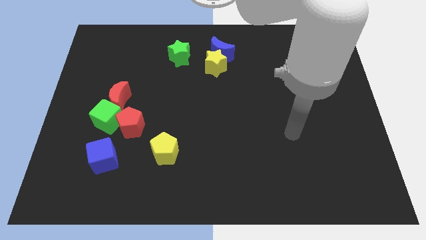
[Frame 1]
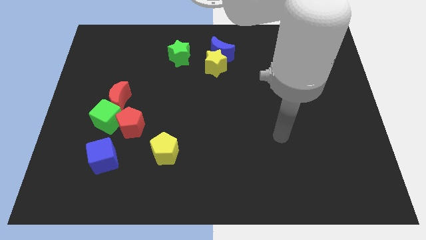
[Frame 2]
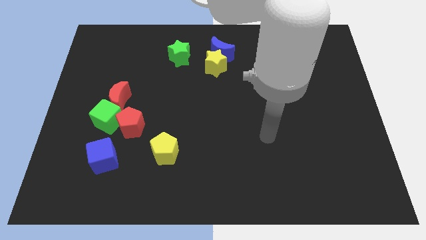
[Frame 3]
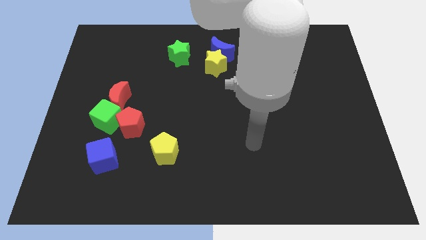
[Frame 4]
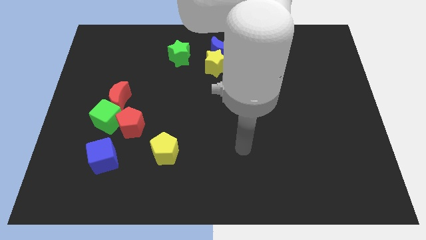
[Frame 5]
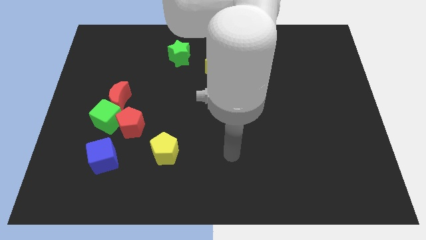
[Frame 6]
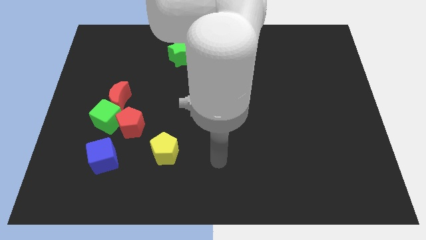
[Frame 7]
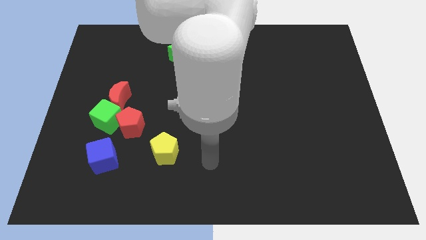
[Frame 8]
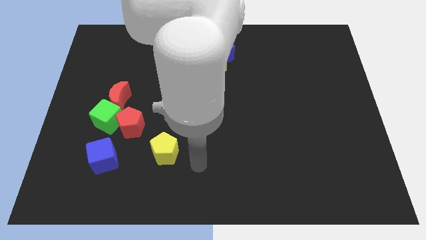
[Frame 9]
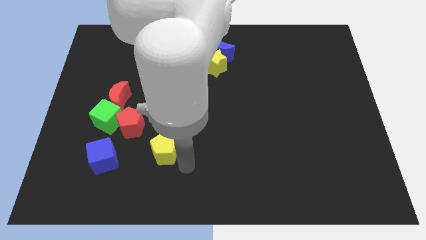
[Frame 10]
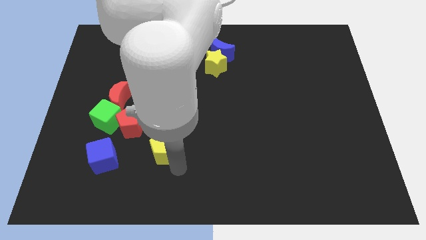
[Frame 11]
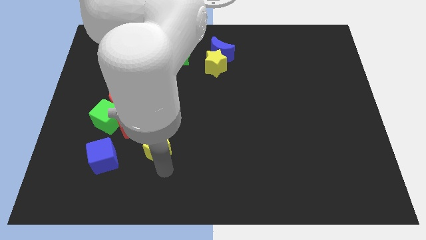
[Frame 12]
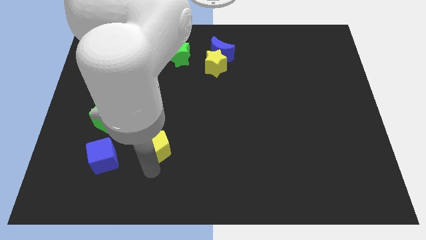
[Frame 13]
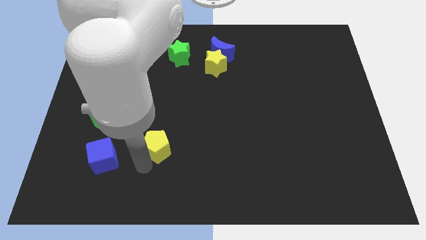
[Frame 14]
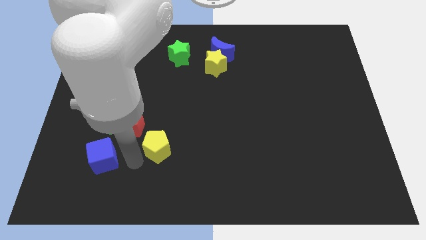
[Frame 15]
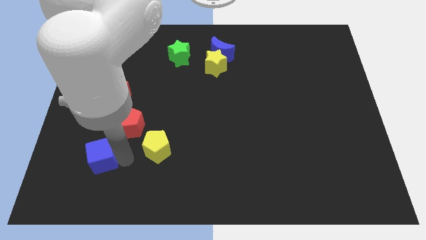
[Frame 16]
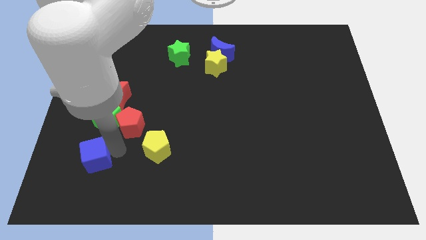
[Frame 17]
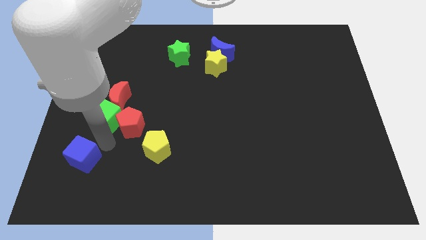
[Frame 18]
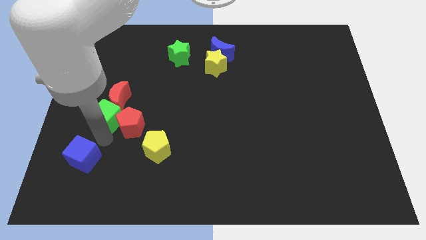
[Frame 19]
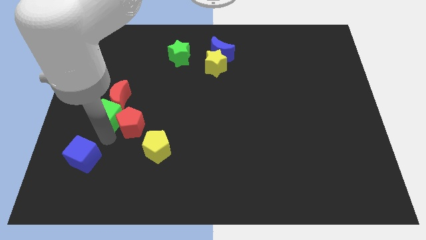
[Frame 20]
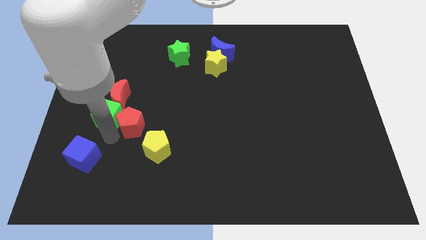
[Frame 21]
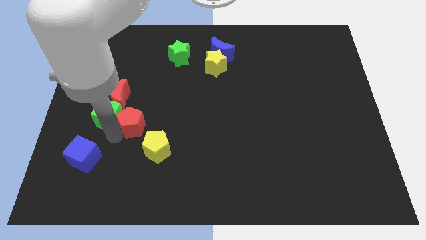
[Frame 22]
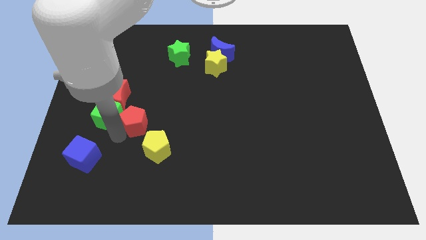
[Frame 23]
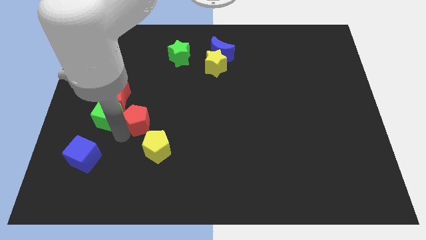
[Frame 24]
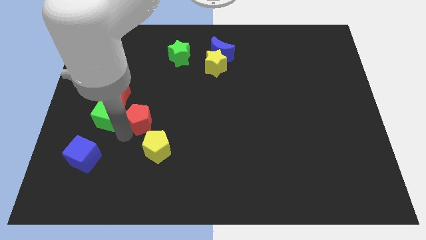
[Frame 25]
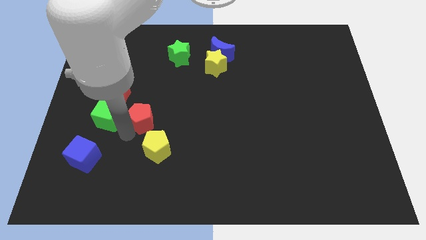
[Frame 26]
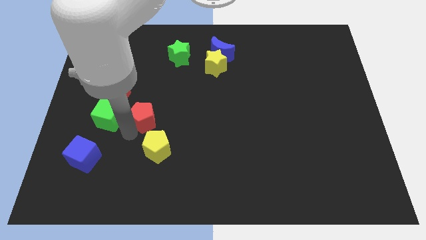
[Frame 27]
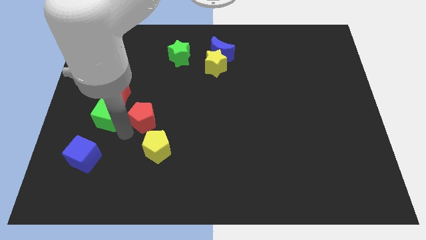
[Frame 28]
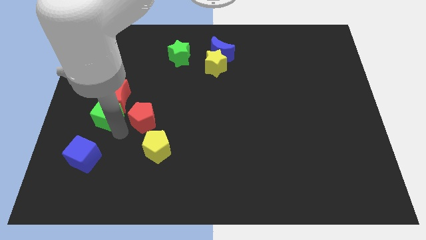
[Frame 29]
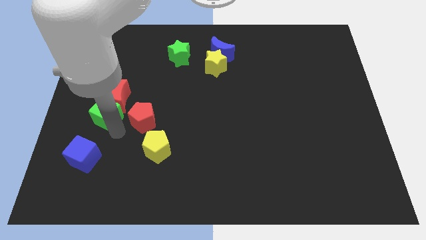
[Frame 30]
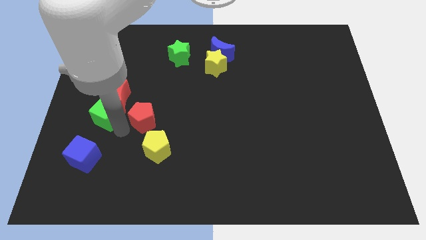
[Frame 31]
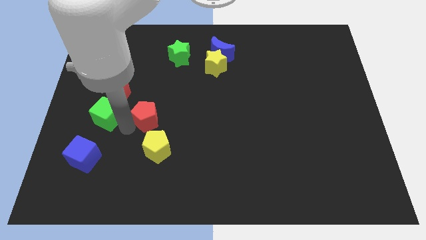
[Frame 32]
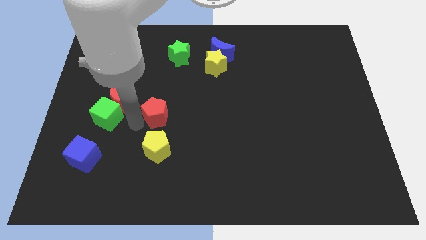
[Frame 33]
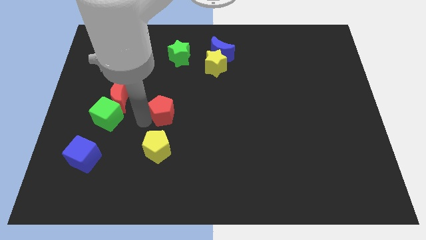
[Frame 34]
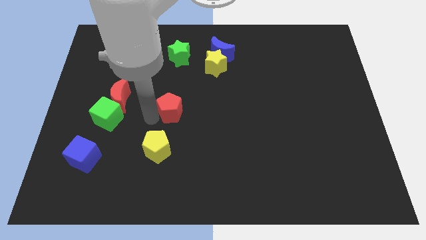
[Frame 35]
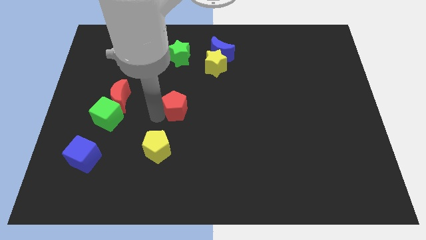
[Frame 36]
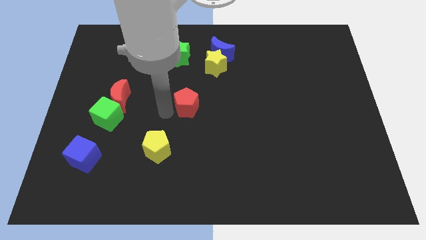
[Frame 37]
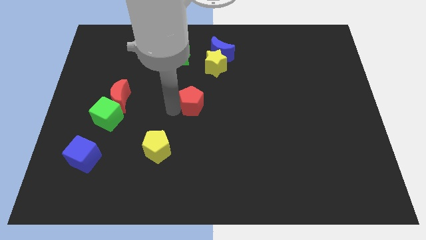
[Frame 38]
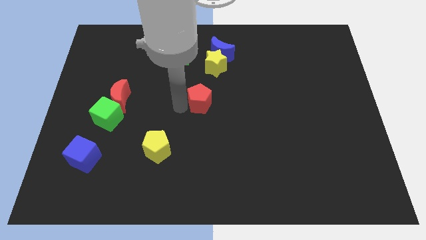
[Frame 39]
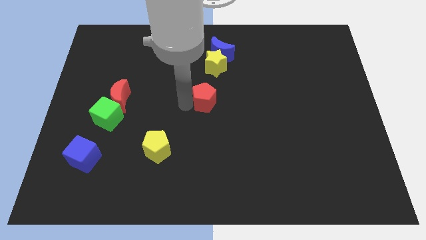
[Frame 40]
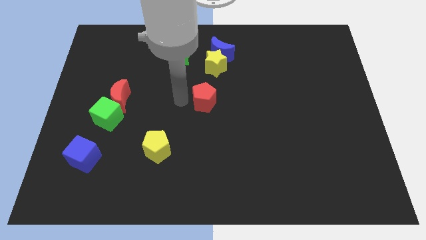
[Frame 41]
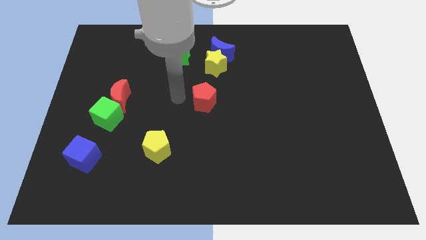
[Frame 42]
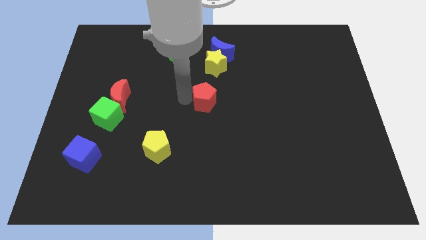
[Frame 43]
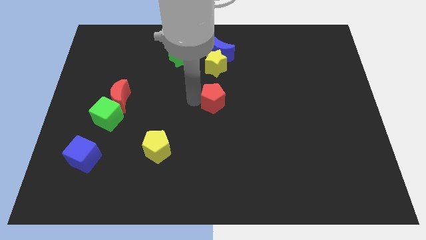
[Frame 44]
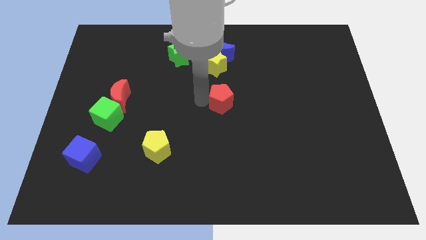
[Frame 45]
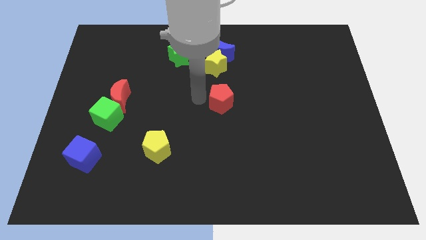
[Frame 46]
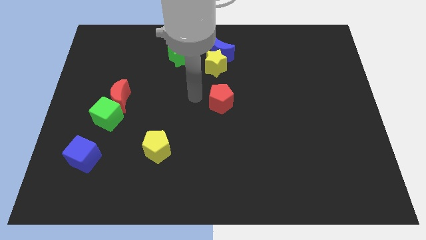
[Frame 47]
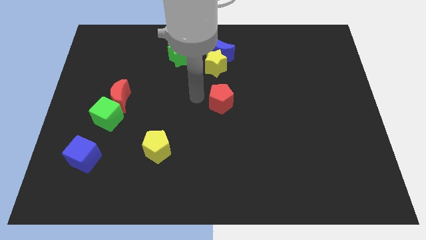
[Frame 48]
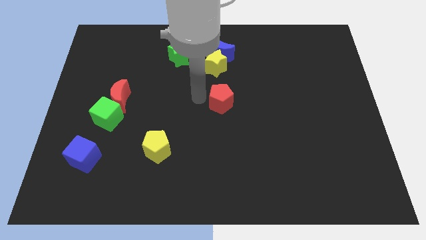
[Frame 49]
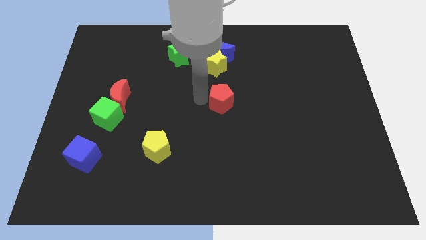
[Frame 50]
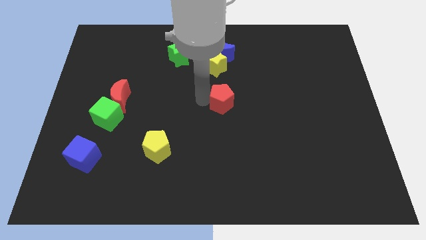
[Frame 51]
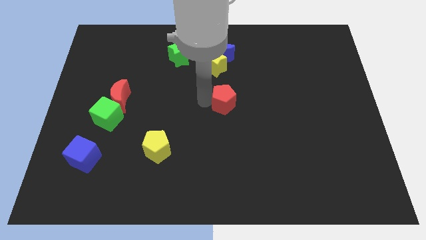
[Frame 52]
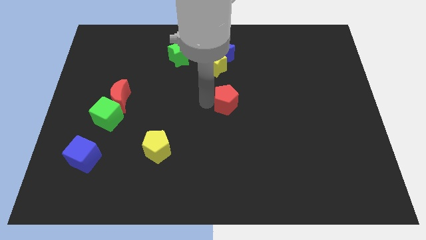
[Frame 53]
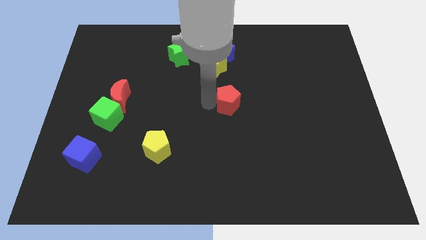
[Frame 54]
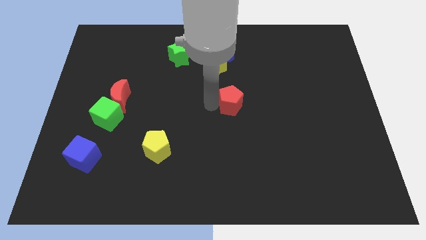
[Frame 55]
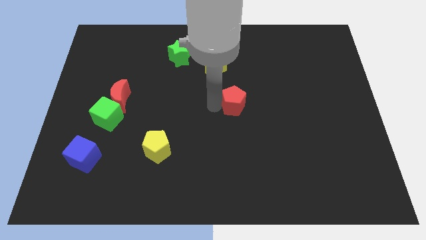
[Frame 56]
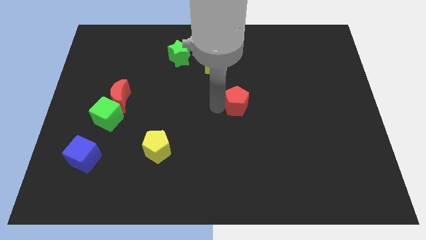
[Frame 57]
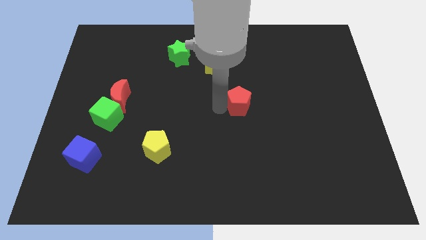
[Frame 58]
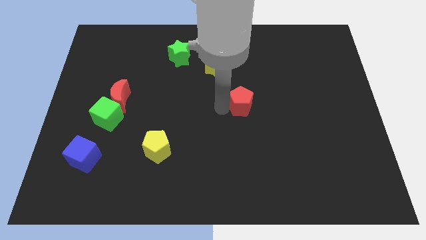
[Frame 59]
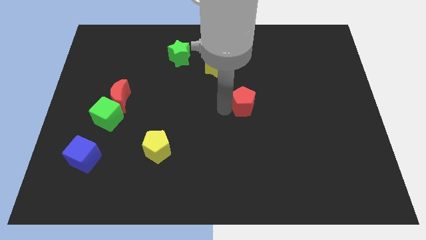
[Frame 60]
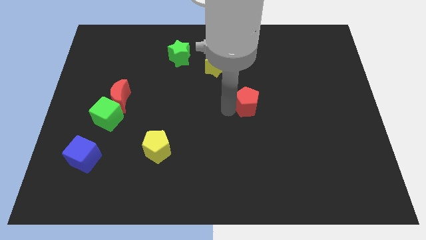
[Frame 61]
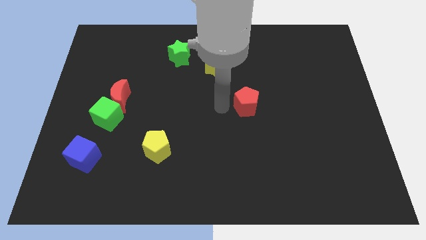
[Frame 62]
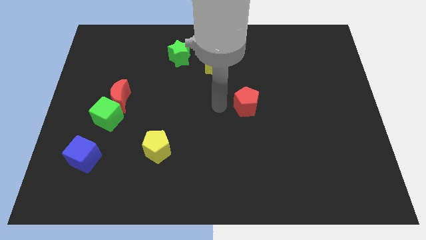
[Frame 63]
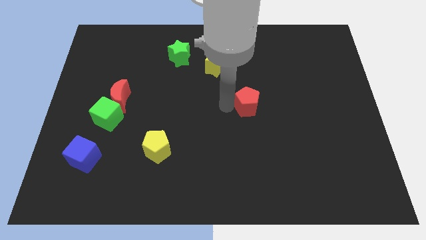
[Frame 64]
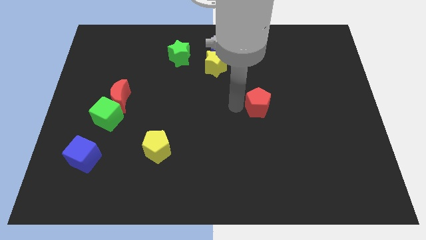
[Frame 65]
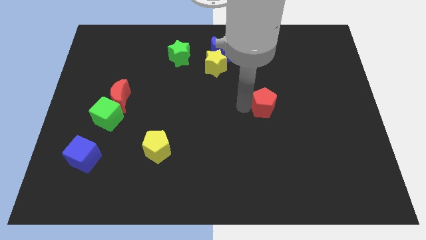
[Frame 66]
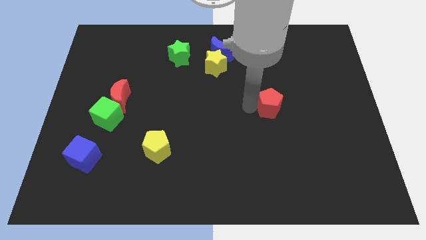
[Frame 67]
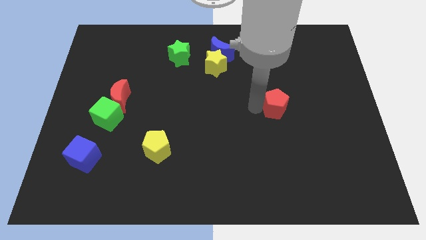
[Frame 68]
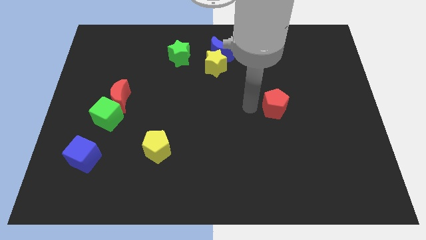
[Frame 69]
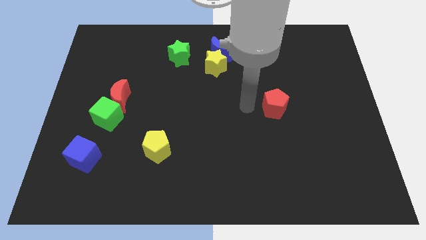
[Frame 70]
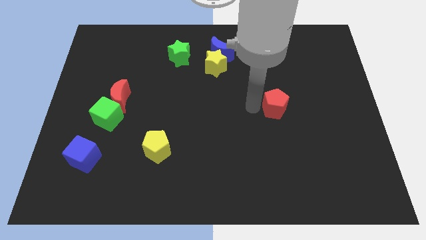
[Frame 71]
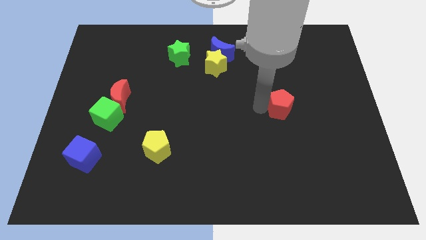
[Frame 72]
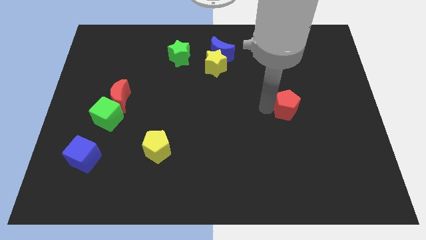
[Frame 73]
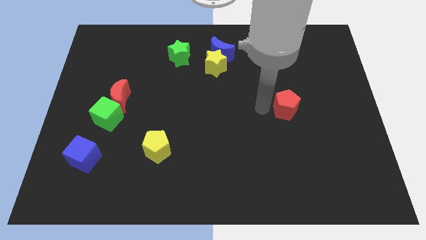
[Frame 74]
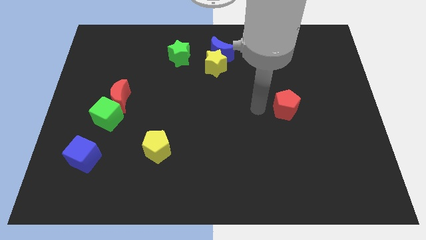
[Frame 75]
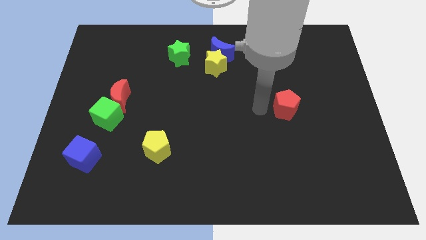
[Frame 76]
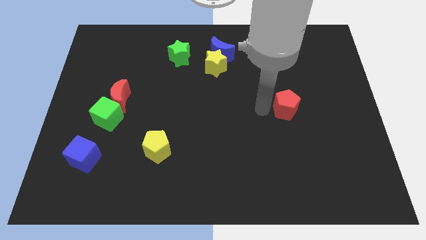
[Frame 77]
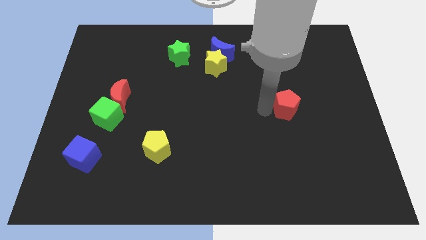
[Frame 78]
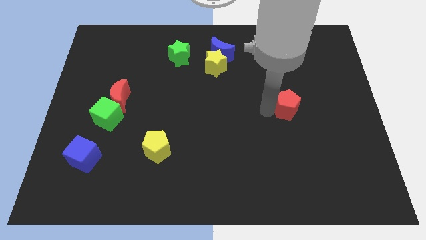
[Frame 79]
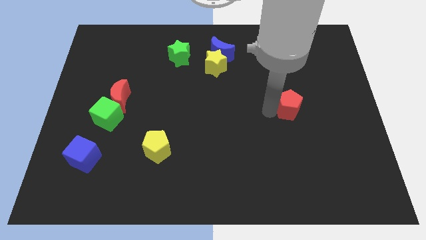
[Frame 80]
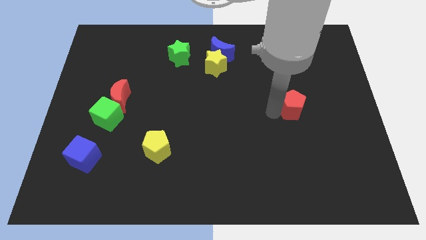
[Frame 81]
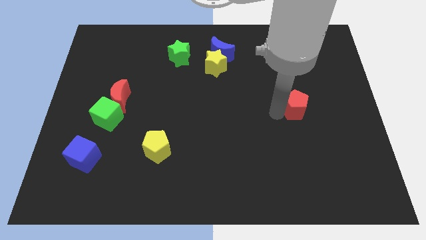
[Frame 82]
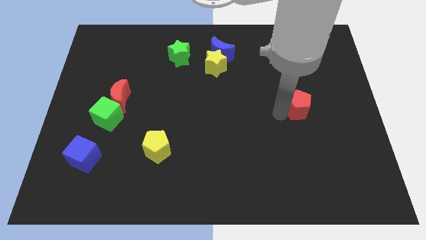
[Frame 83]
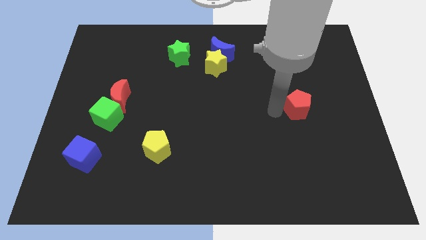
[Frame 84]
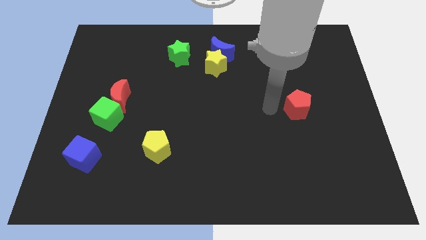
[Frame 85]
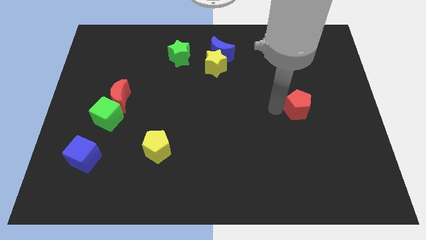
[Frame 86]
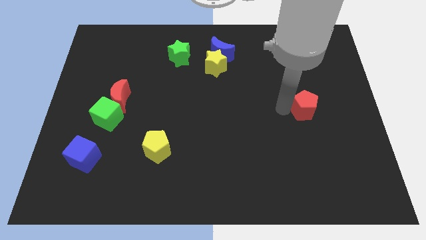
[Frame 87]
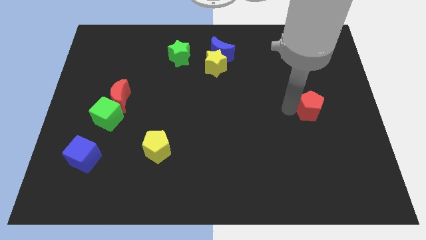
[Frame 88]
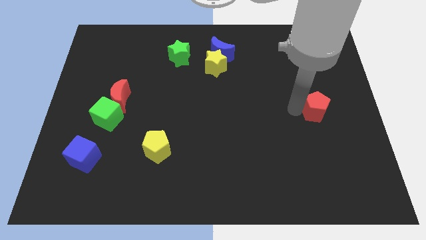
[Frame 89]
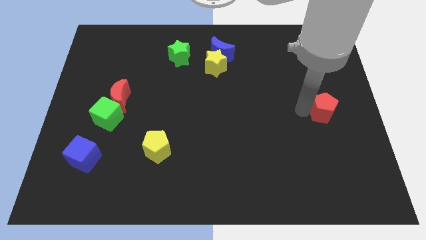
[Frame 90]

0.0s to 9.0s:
put the red pentagon to the center right
